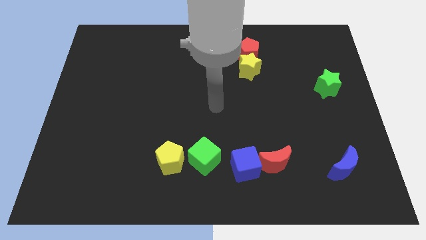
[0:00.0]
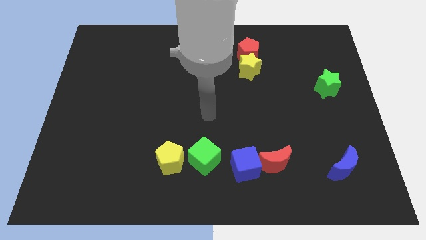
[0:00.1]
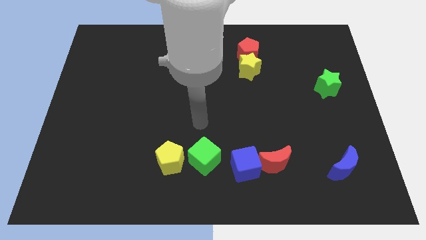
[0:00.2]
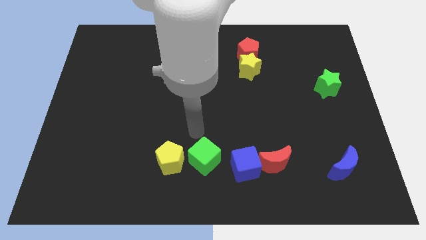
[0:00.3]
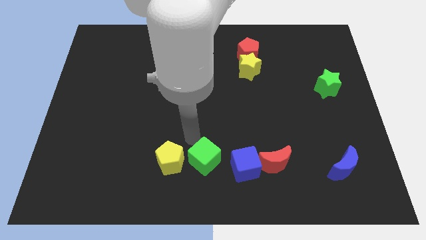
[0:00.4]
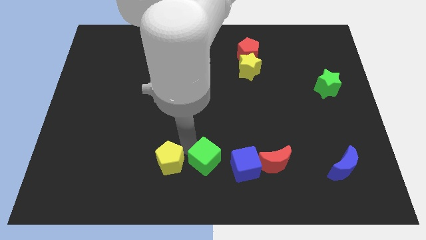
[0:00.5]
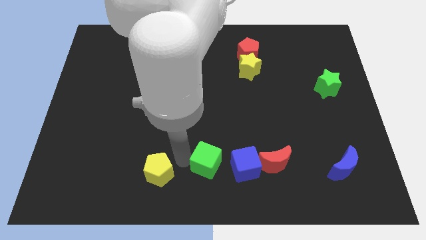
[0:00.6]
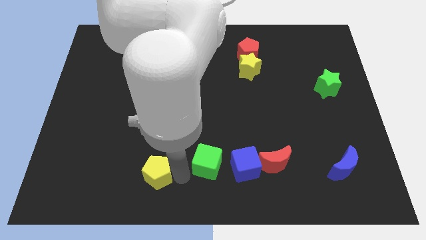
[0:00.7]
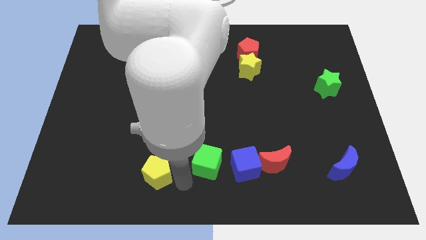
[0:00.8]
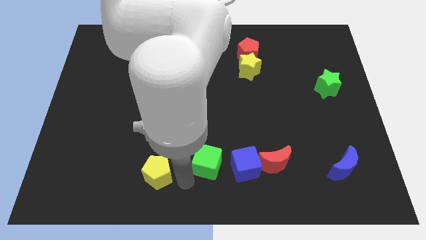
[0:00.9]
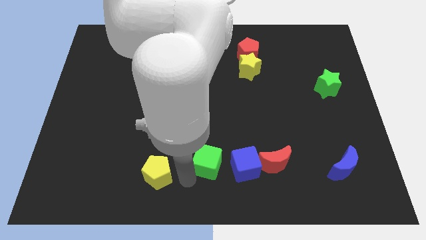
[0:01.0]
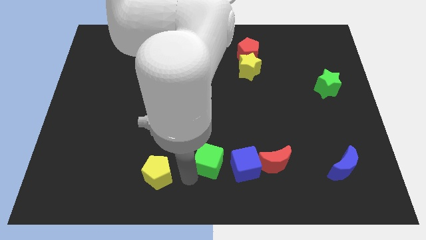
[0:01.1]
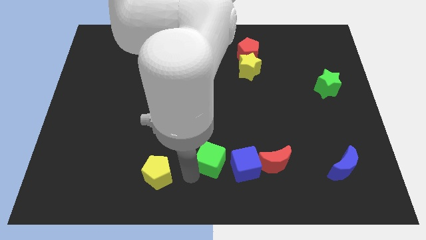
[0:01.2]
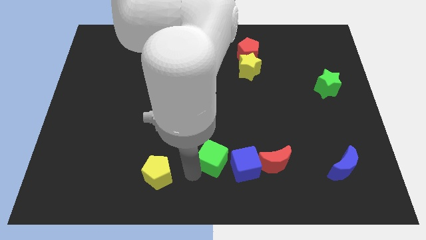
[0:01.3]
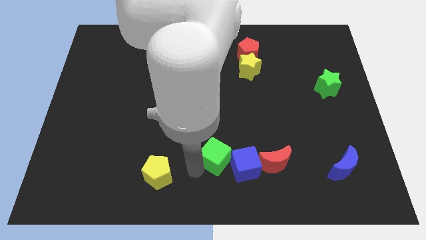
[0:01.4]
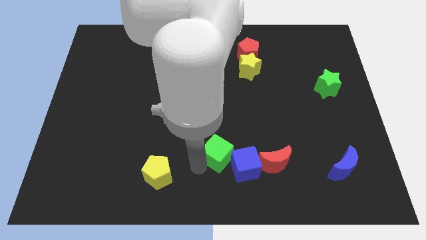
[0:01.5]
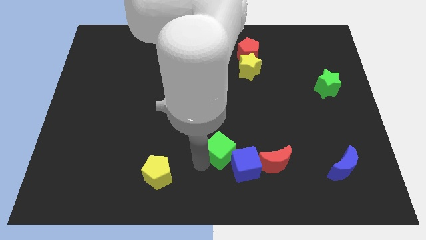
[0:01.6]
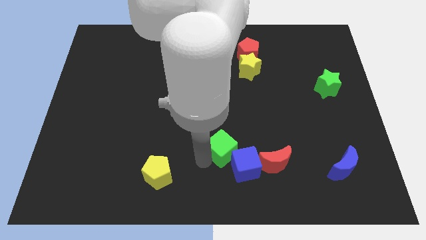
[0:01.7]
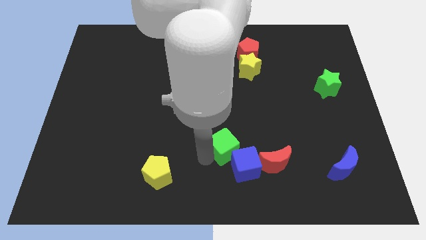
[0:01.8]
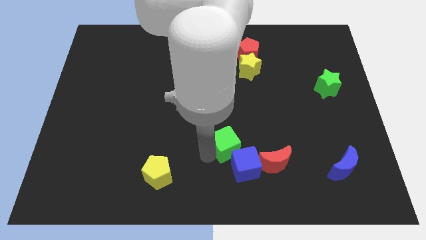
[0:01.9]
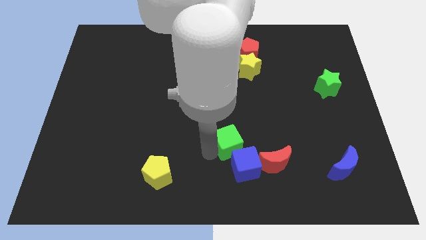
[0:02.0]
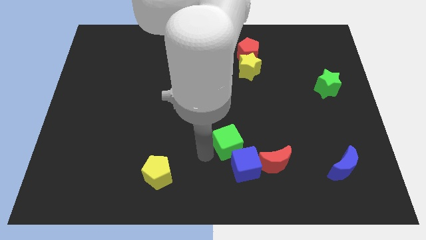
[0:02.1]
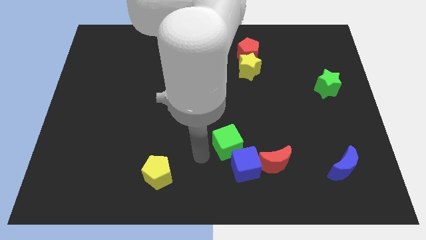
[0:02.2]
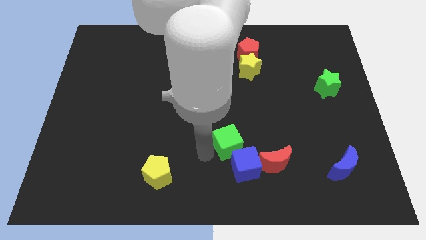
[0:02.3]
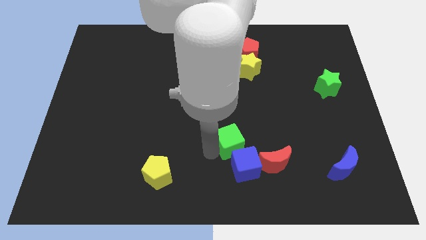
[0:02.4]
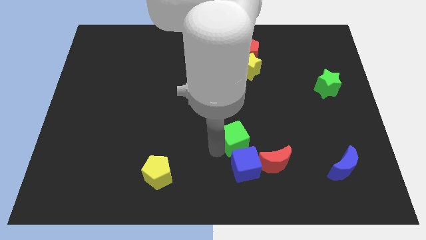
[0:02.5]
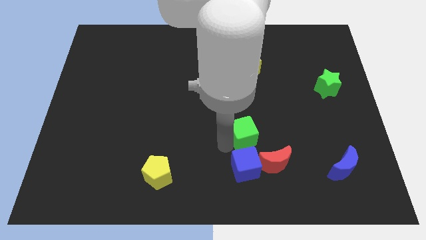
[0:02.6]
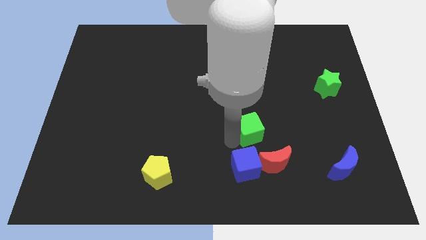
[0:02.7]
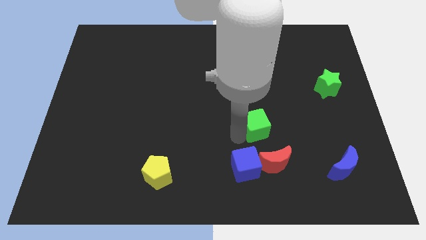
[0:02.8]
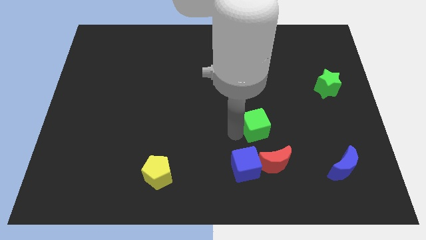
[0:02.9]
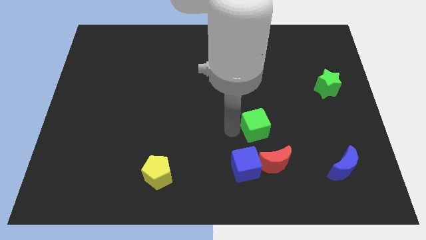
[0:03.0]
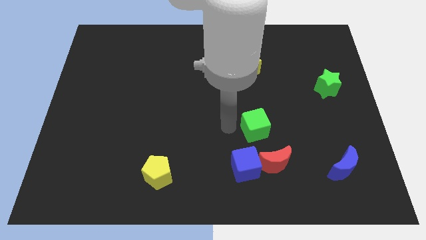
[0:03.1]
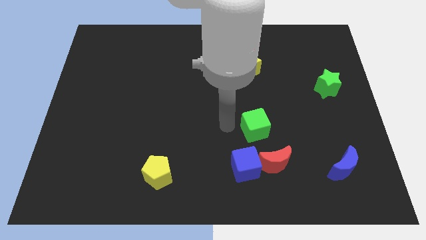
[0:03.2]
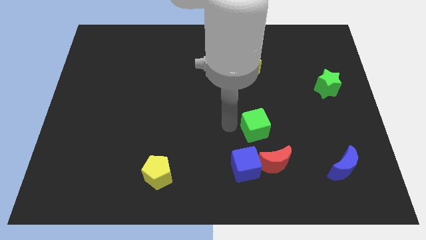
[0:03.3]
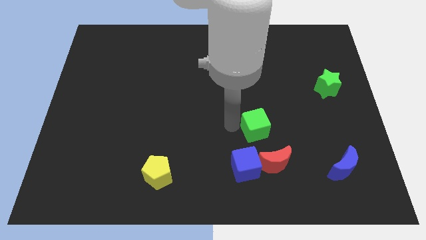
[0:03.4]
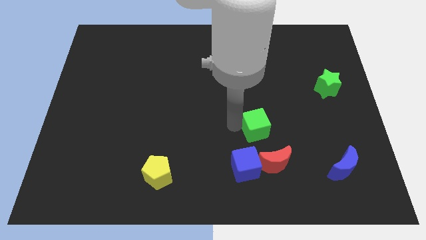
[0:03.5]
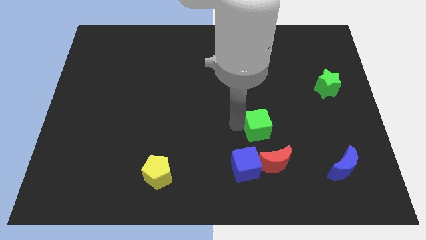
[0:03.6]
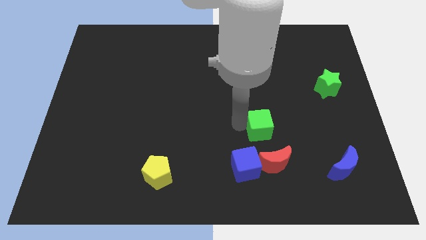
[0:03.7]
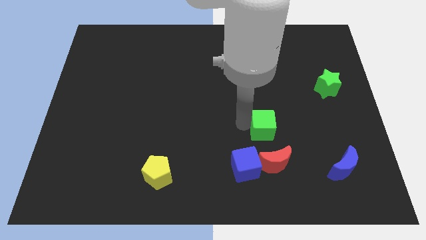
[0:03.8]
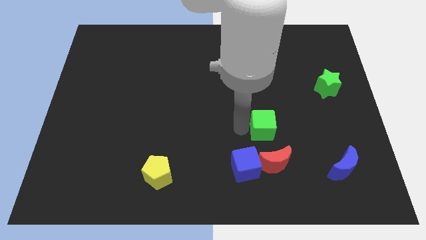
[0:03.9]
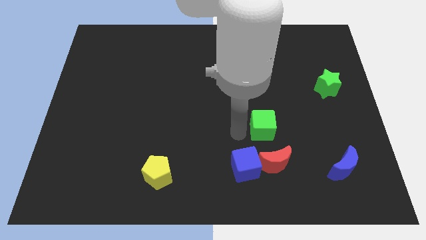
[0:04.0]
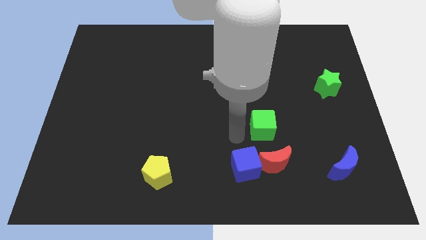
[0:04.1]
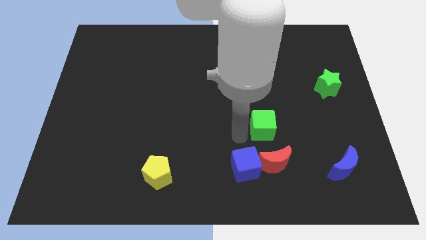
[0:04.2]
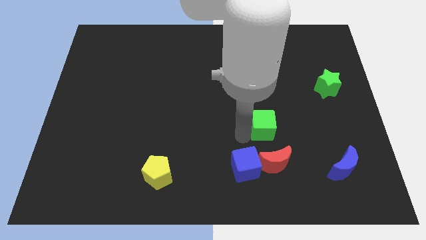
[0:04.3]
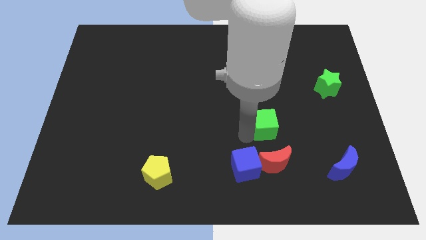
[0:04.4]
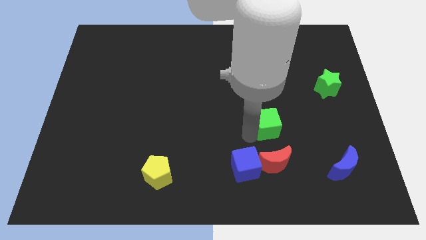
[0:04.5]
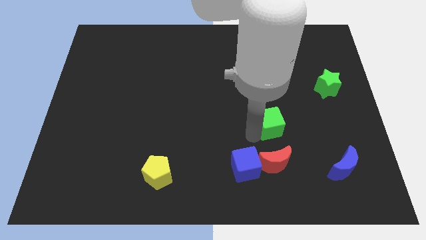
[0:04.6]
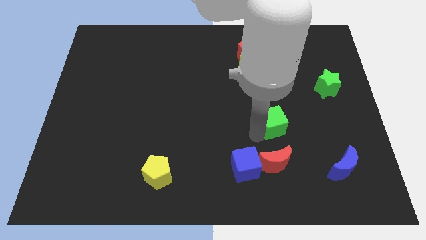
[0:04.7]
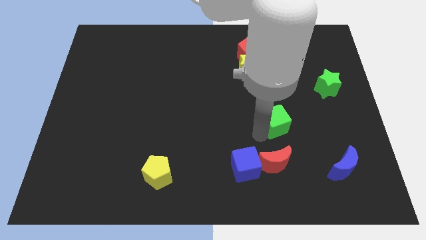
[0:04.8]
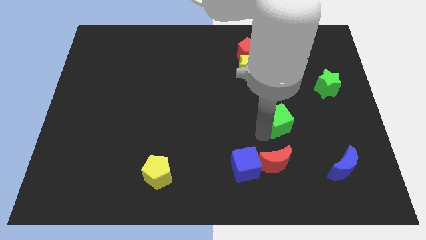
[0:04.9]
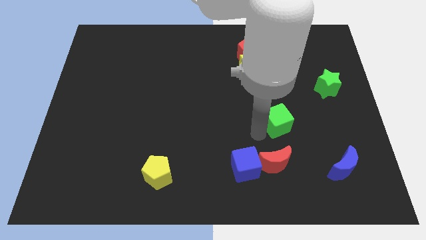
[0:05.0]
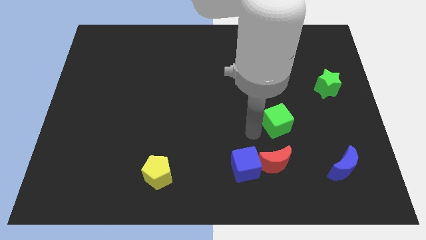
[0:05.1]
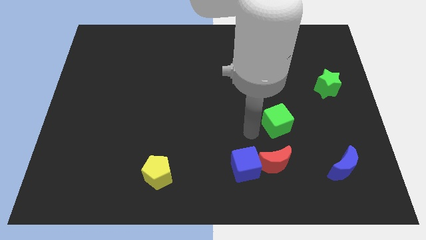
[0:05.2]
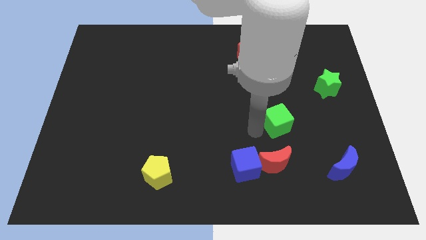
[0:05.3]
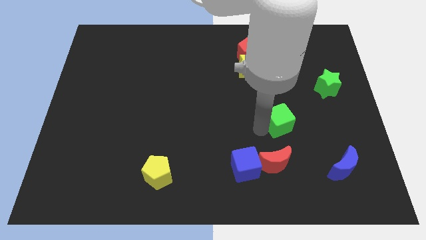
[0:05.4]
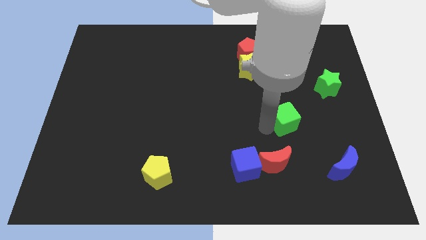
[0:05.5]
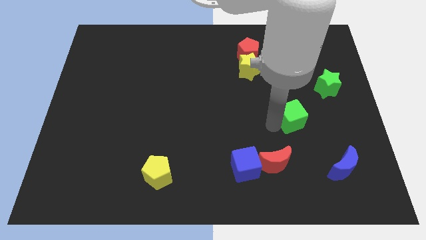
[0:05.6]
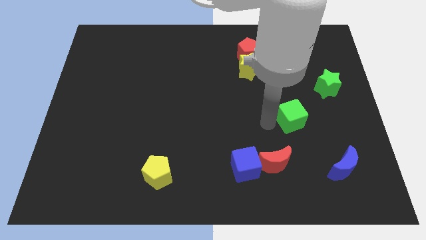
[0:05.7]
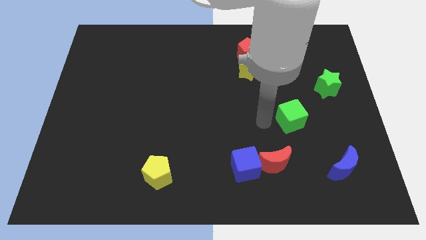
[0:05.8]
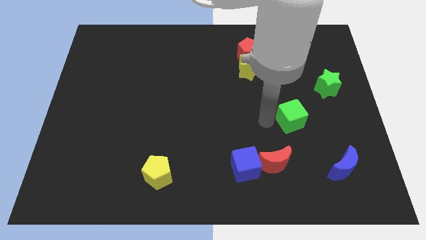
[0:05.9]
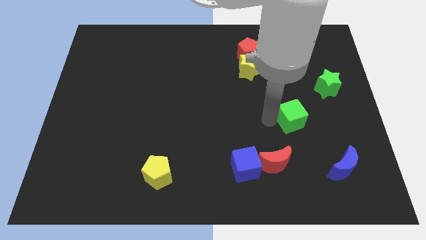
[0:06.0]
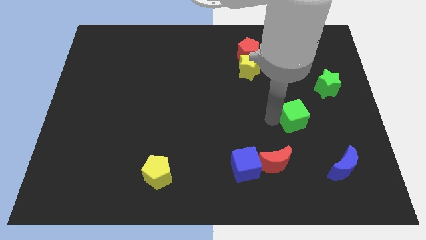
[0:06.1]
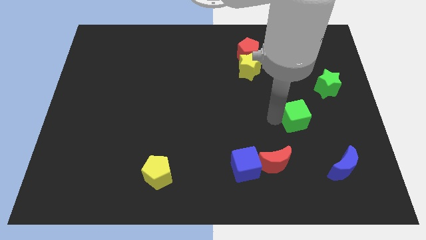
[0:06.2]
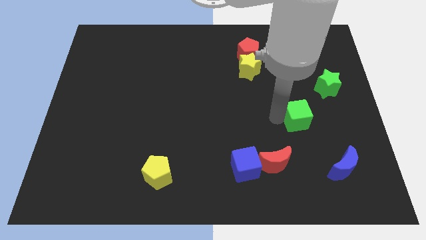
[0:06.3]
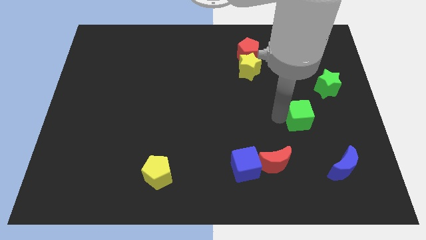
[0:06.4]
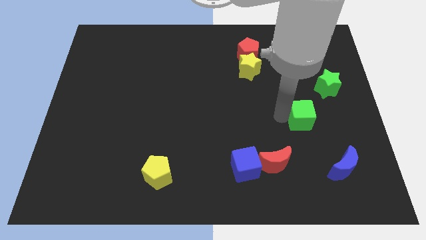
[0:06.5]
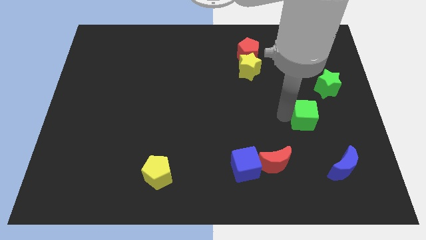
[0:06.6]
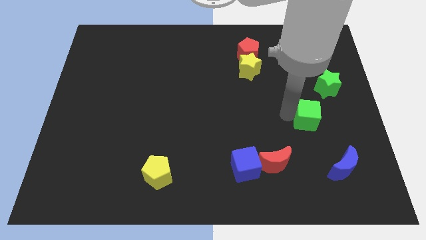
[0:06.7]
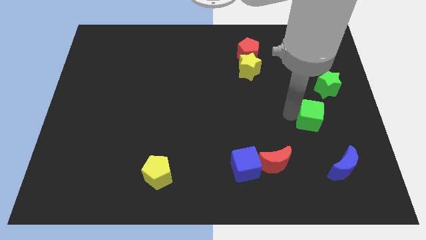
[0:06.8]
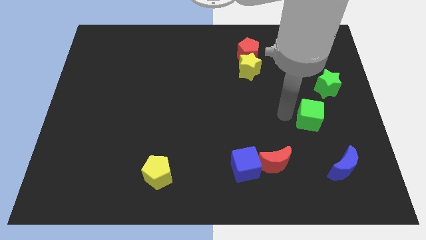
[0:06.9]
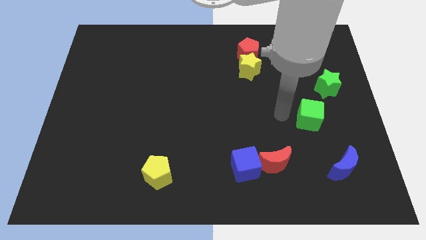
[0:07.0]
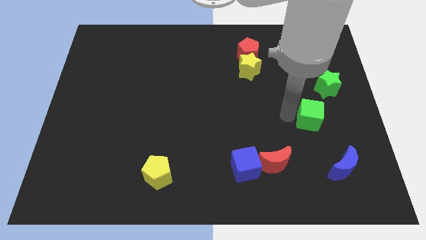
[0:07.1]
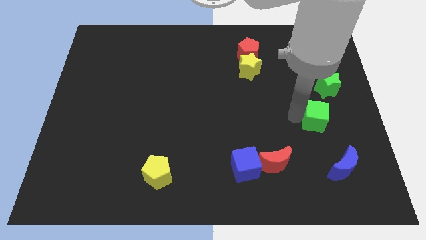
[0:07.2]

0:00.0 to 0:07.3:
move the green cube to the bottom of the green star
